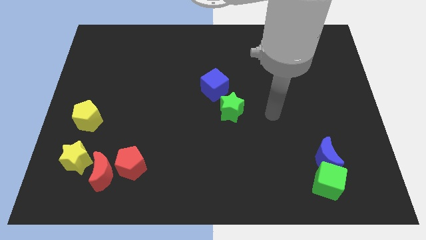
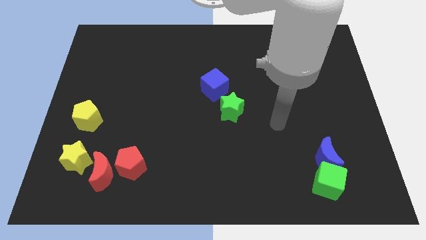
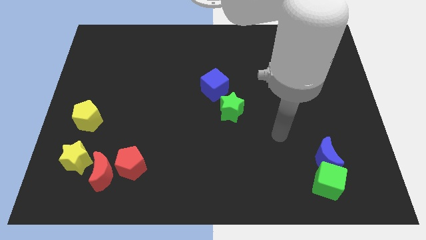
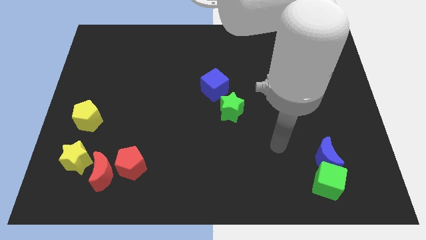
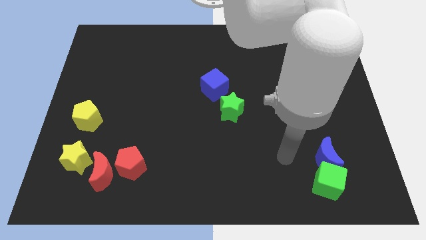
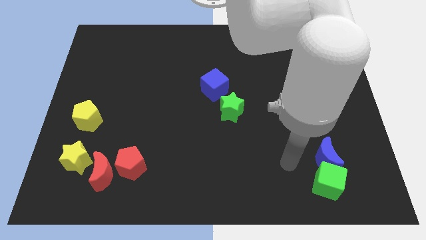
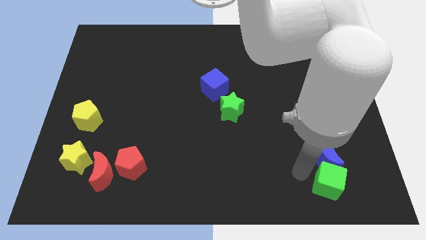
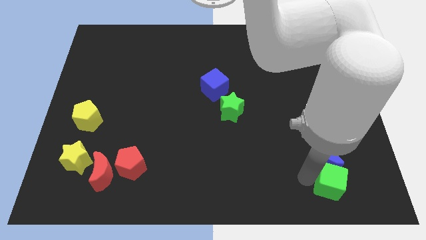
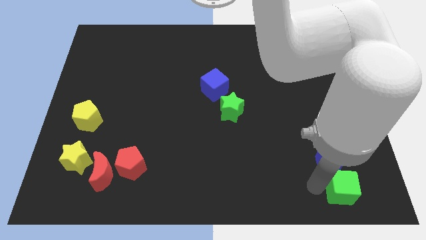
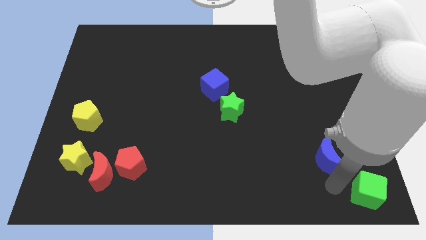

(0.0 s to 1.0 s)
pull the blue moon apart from the green cube

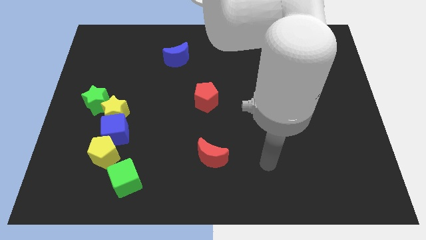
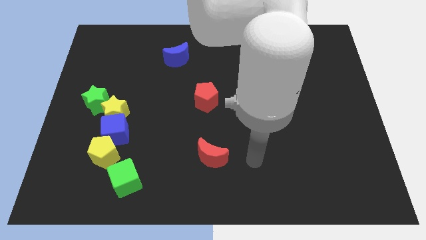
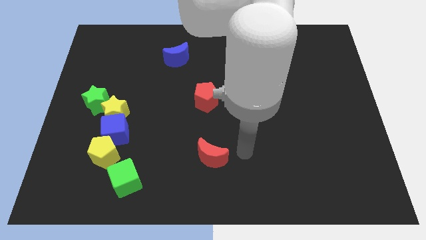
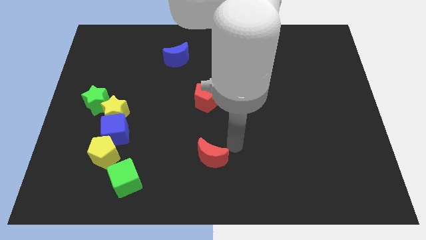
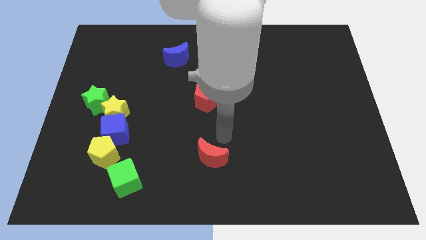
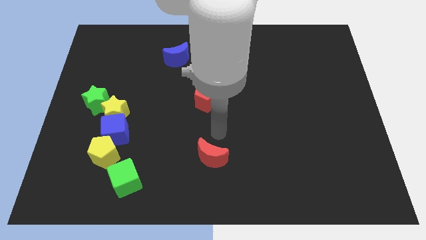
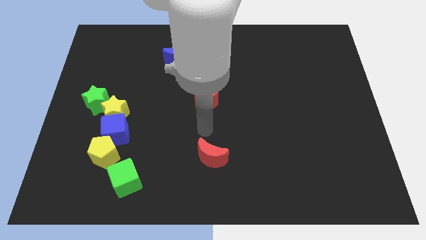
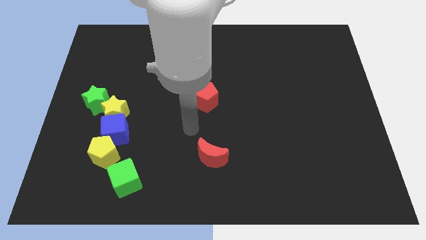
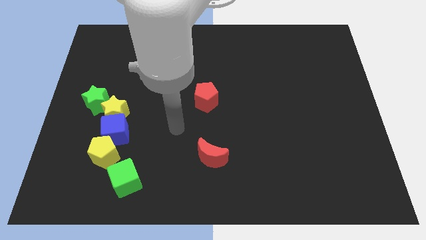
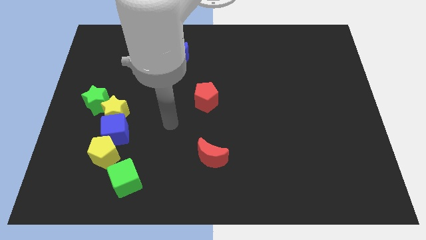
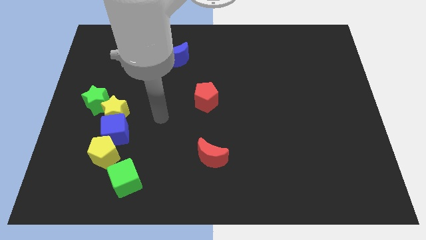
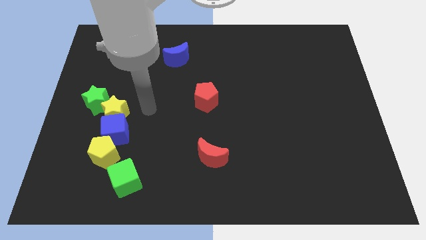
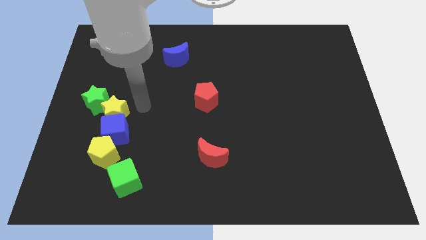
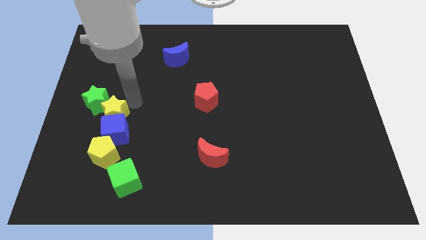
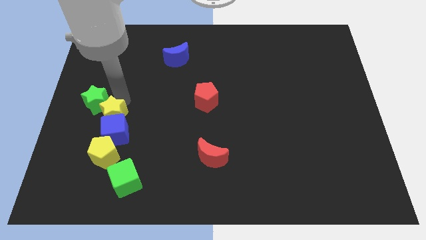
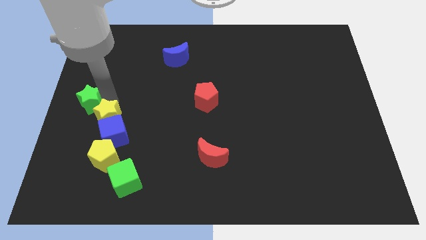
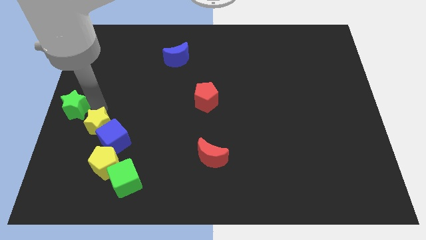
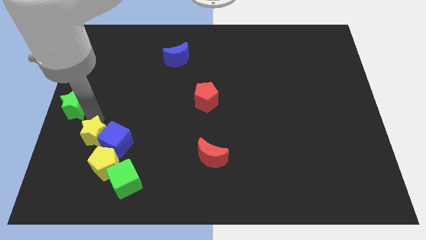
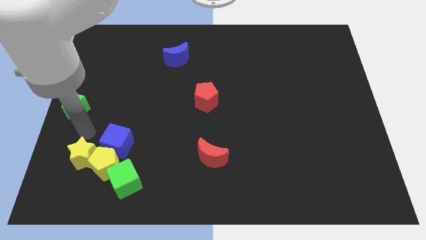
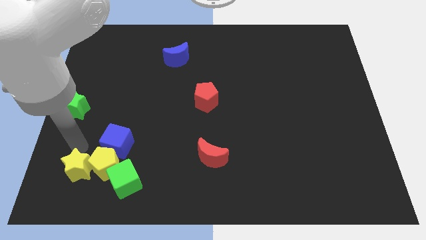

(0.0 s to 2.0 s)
separate the yellow star from the blue cube and green star

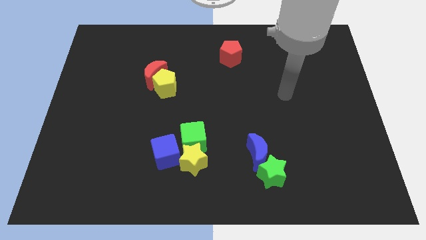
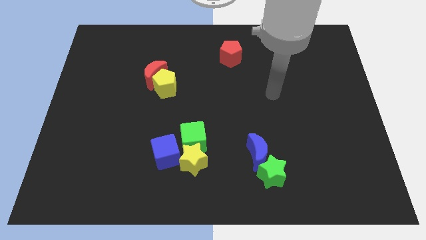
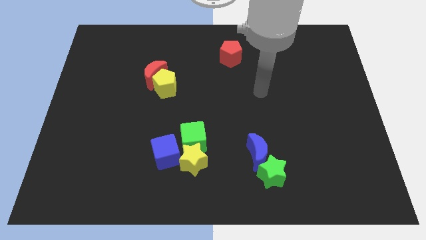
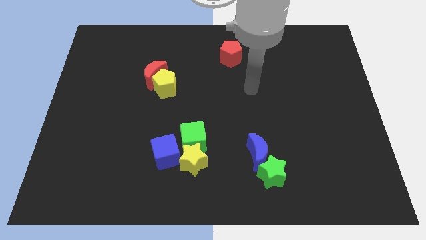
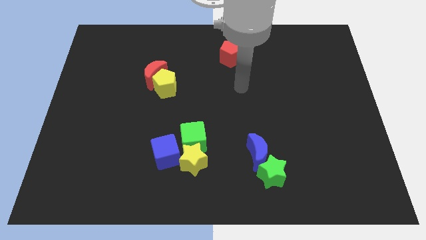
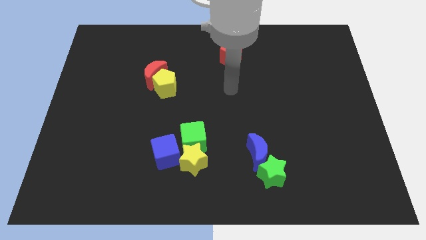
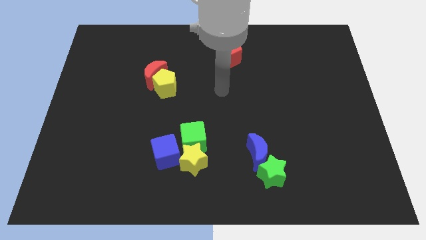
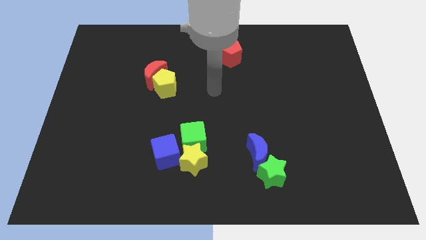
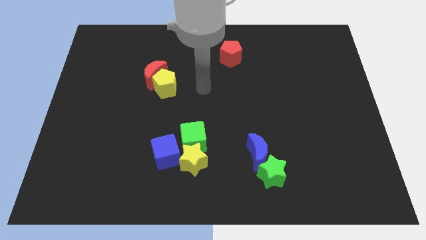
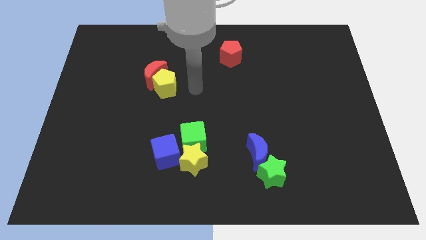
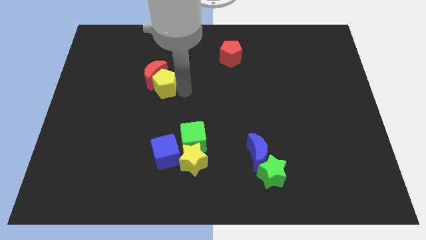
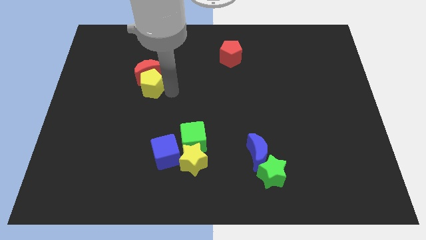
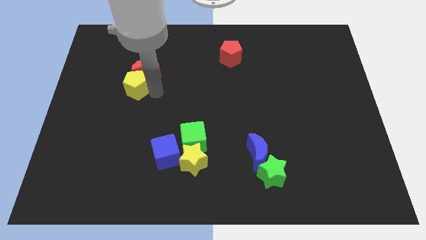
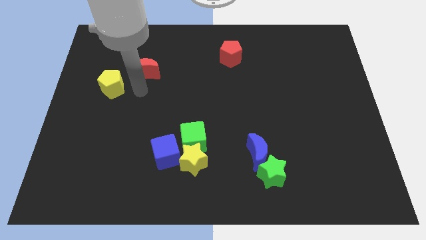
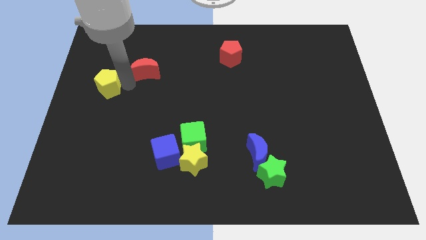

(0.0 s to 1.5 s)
pull the red moon apart from the yellow pentagon

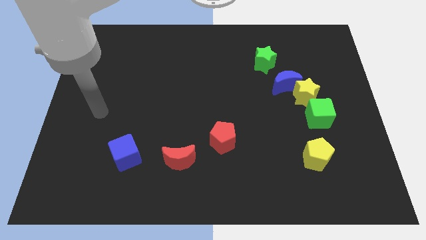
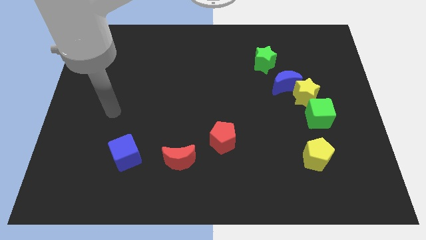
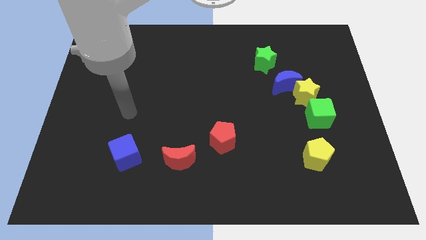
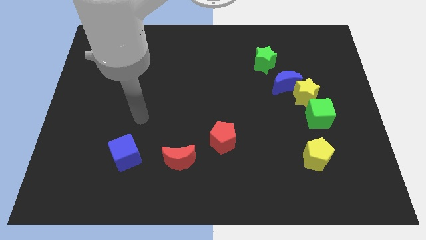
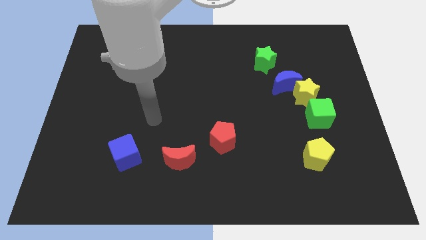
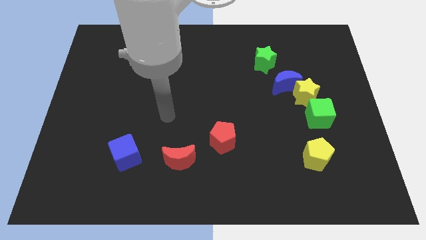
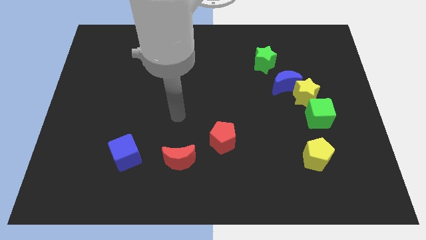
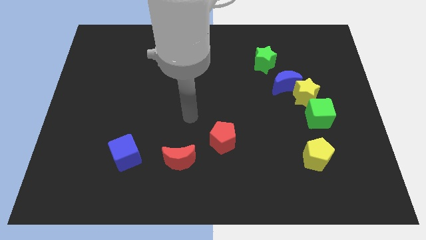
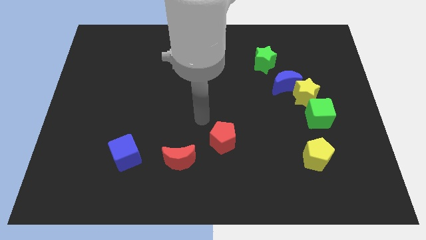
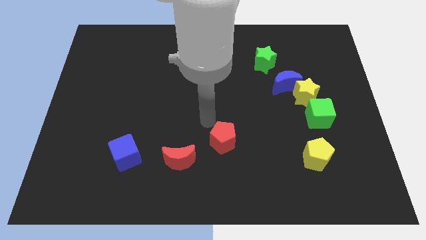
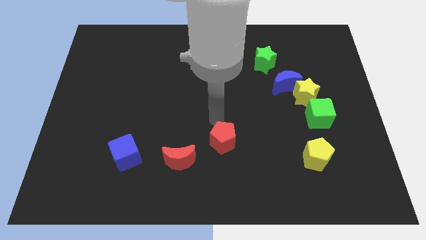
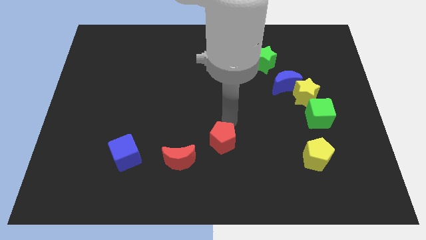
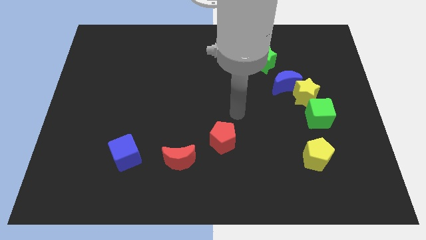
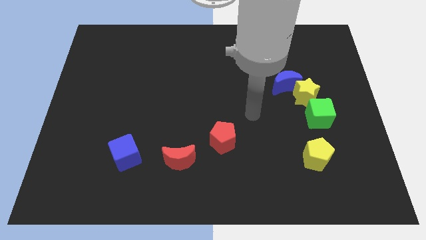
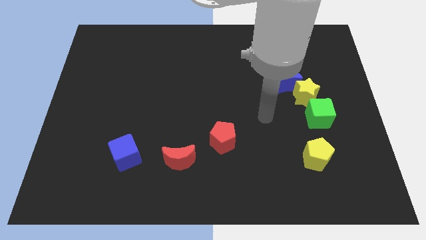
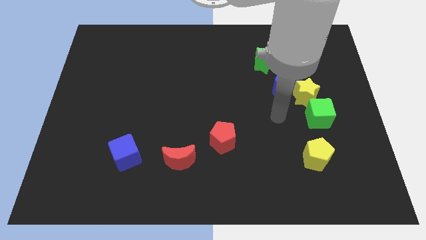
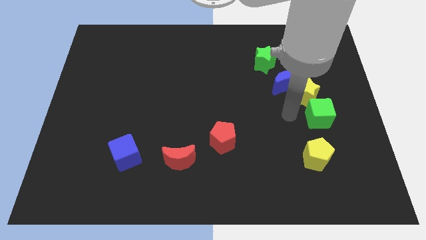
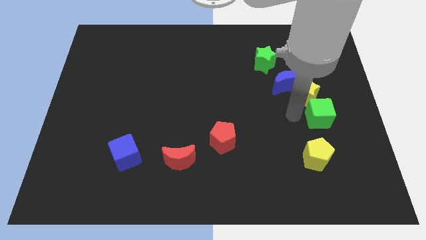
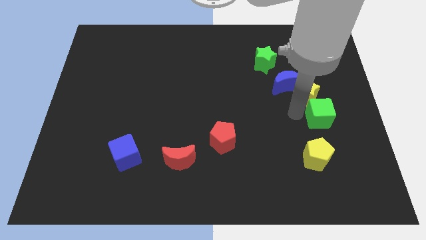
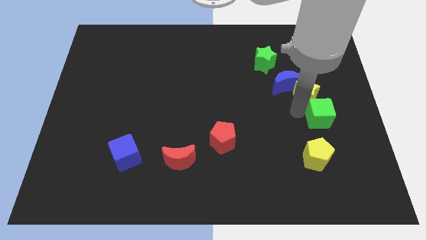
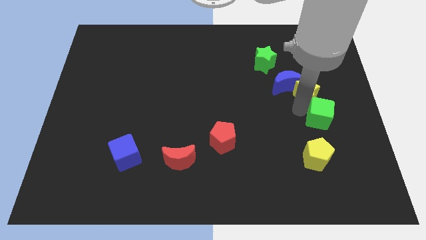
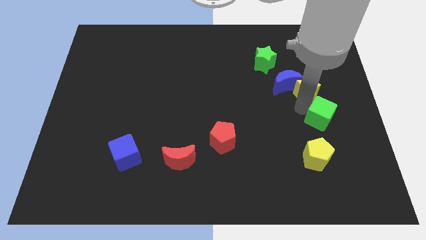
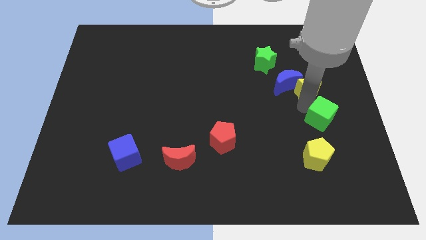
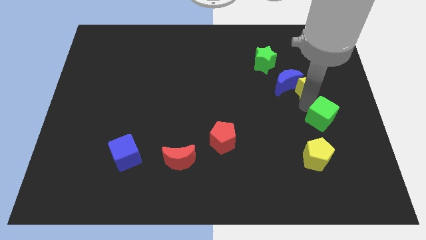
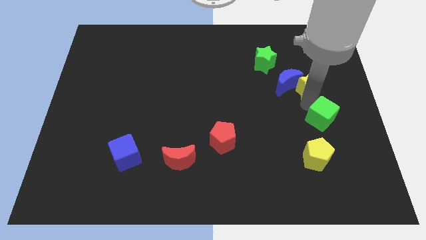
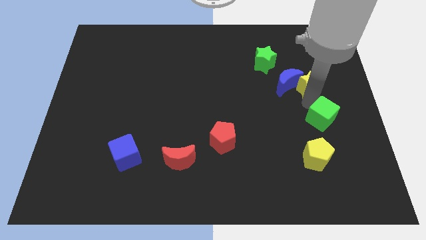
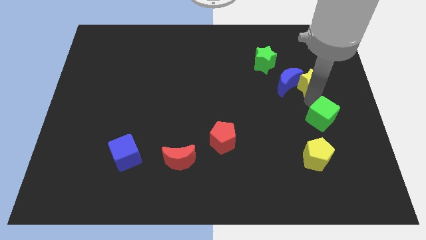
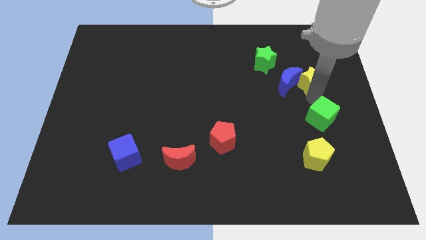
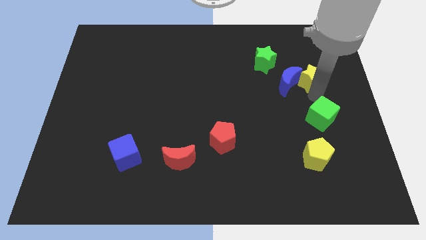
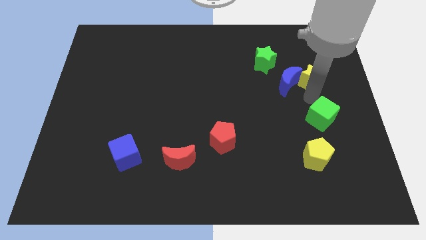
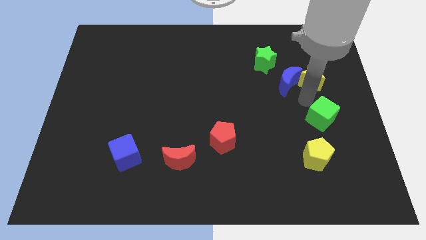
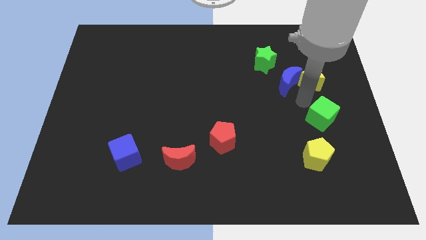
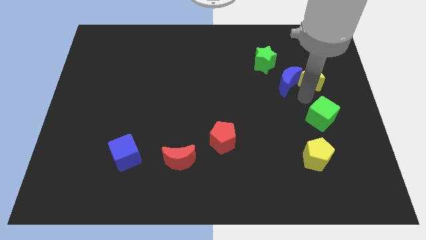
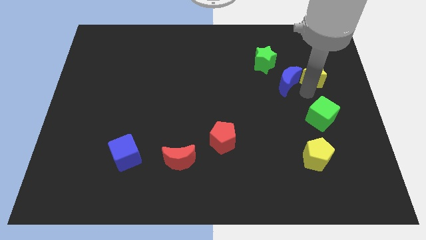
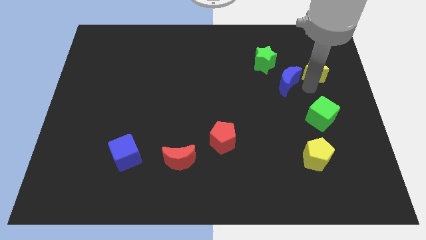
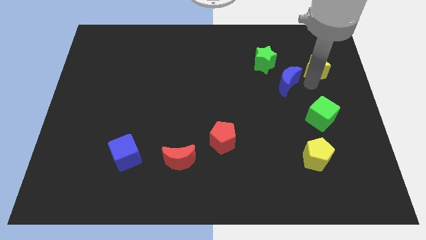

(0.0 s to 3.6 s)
move the yellow star away from the blue moon and green cube

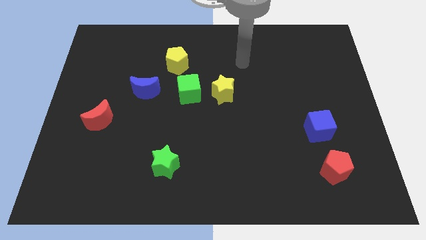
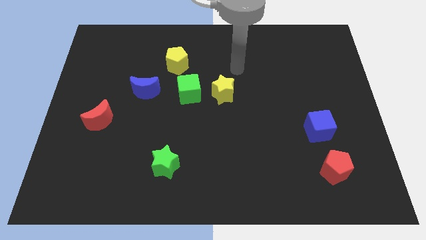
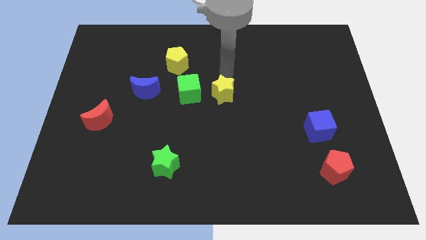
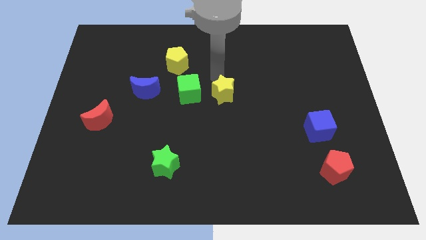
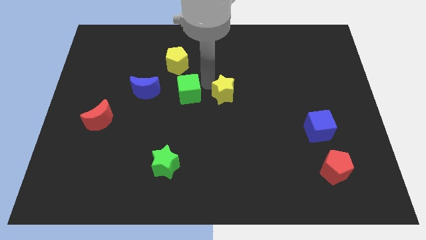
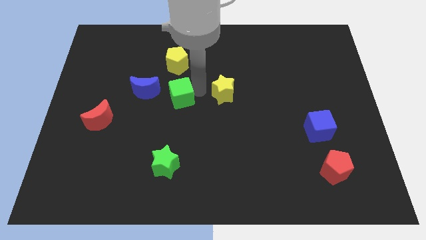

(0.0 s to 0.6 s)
separate the yellow star from the green cube

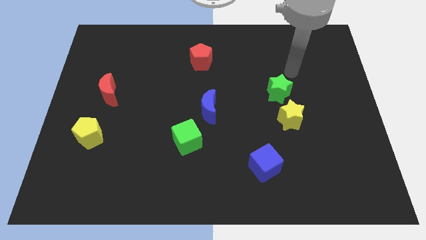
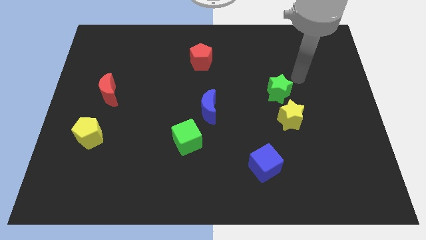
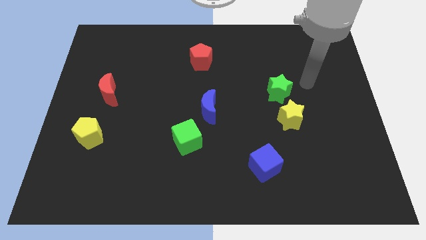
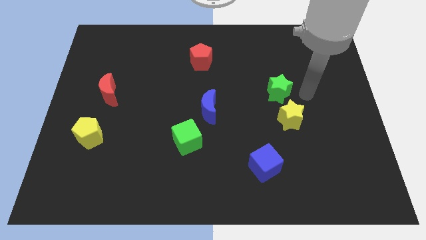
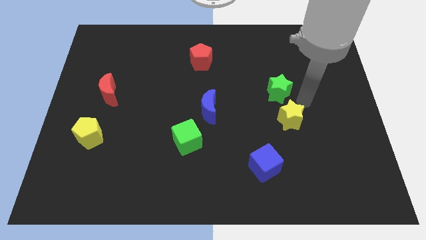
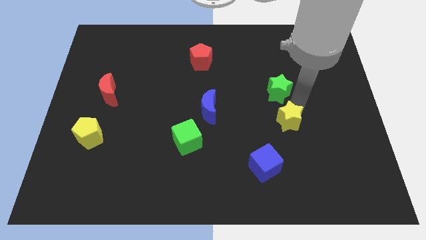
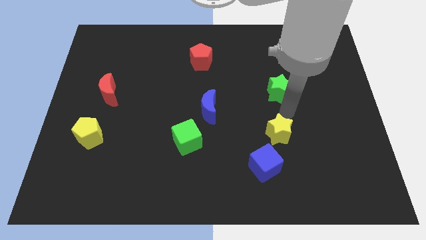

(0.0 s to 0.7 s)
separate the green star from the yellow star
